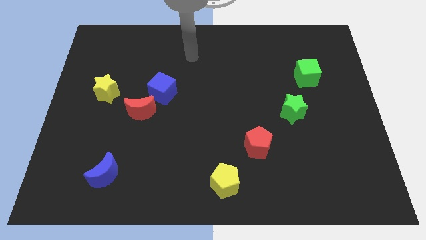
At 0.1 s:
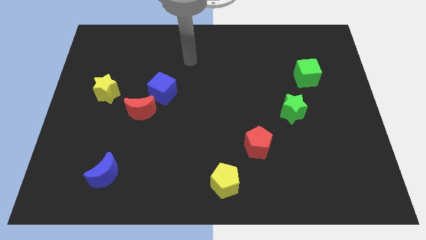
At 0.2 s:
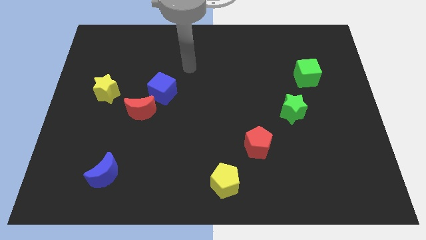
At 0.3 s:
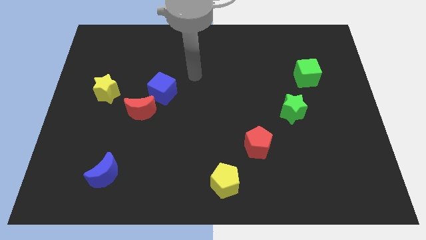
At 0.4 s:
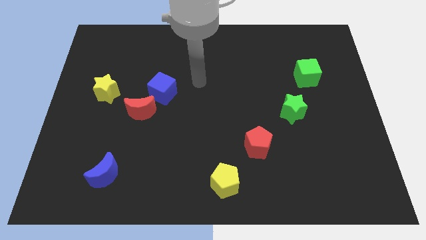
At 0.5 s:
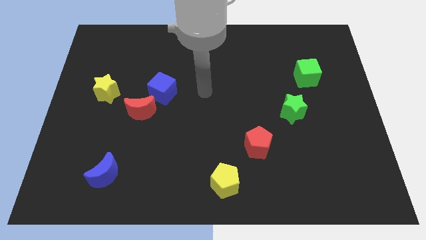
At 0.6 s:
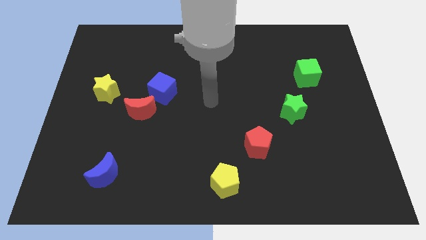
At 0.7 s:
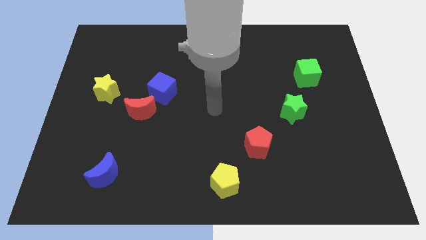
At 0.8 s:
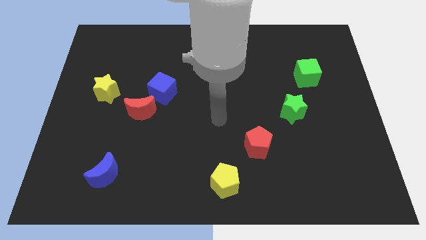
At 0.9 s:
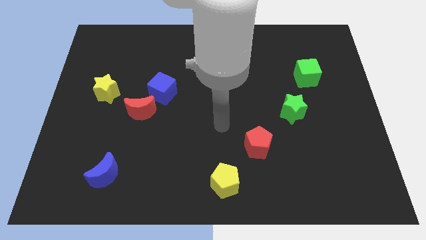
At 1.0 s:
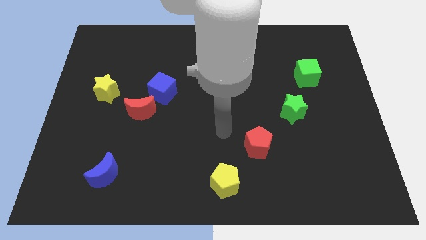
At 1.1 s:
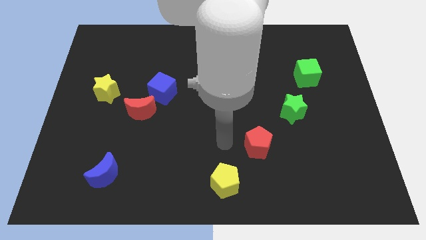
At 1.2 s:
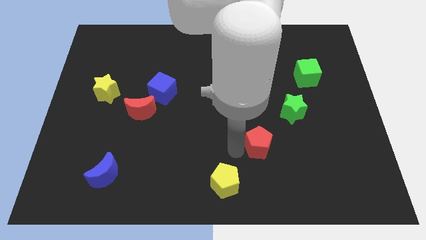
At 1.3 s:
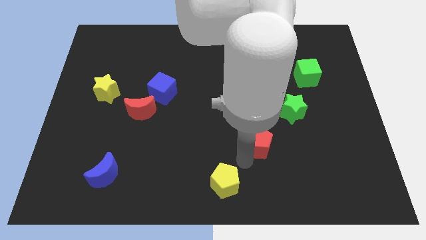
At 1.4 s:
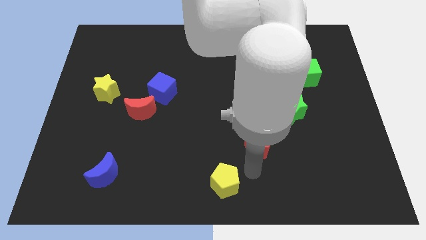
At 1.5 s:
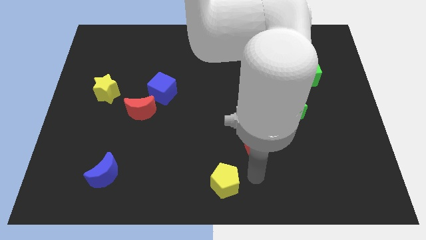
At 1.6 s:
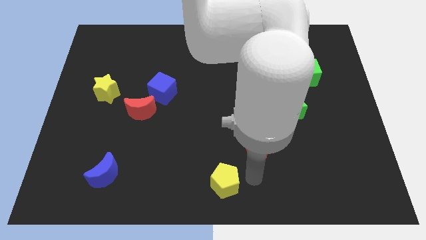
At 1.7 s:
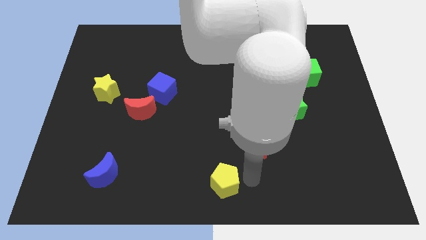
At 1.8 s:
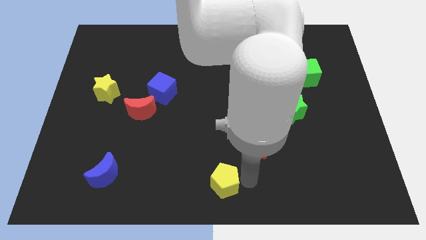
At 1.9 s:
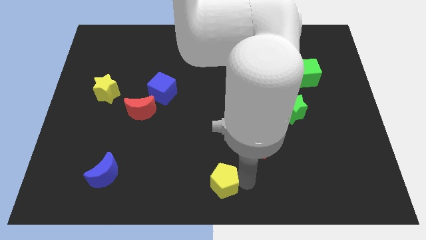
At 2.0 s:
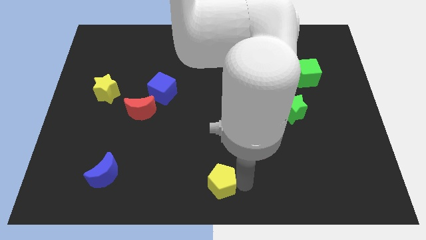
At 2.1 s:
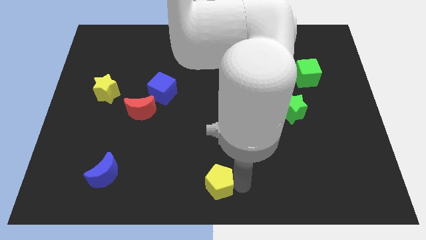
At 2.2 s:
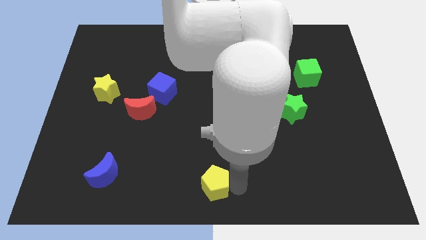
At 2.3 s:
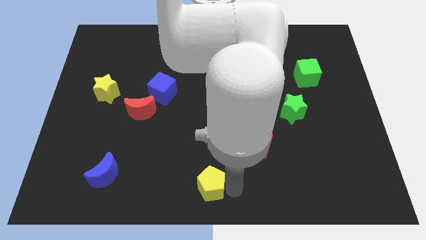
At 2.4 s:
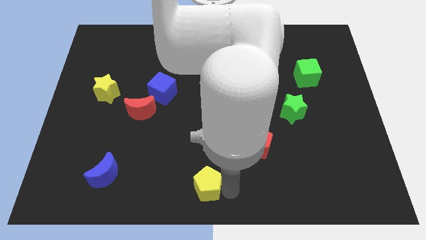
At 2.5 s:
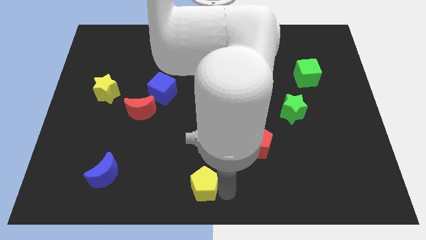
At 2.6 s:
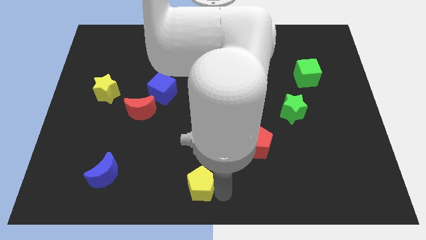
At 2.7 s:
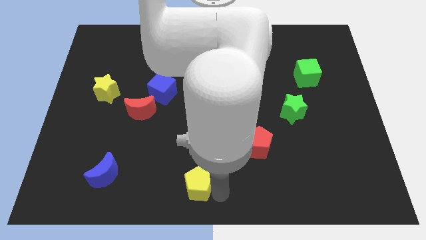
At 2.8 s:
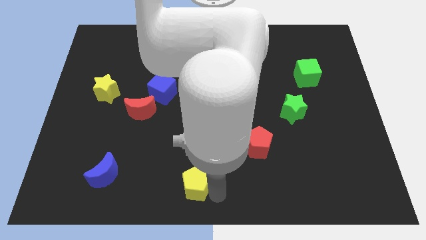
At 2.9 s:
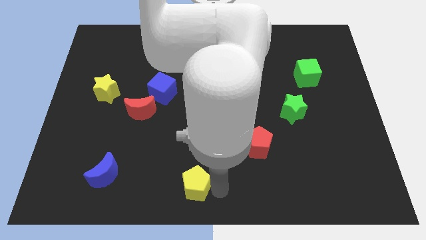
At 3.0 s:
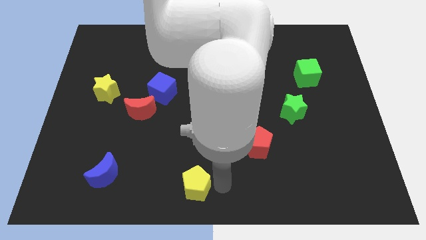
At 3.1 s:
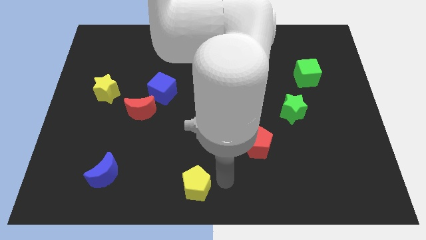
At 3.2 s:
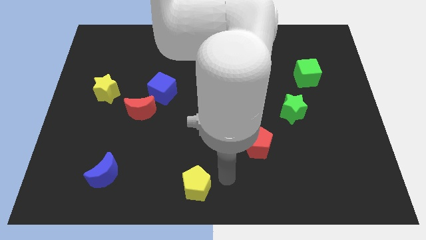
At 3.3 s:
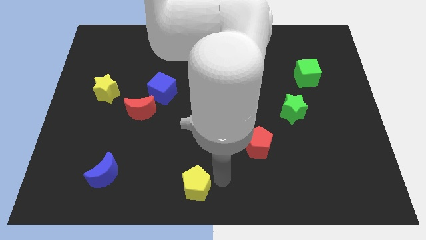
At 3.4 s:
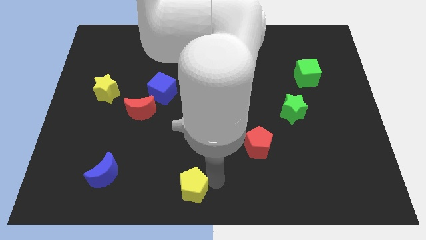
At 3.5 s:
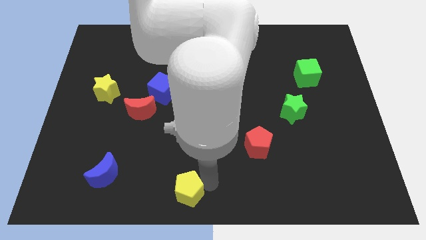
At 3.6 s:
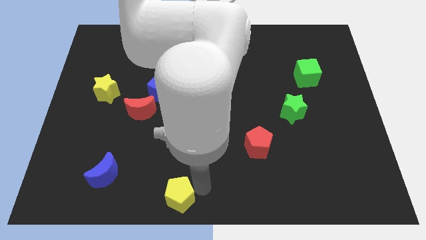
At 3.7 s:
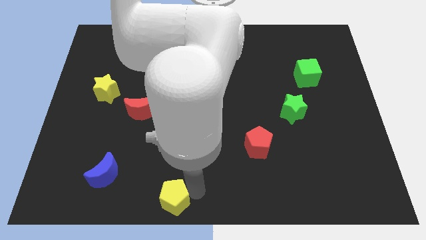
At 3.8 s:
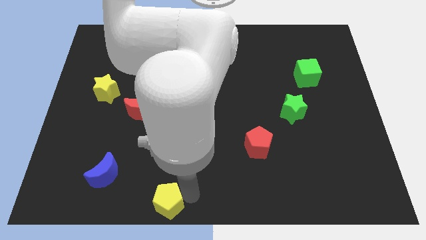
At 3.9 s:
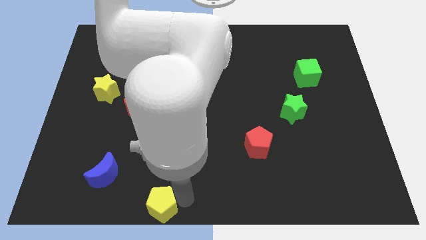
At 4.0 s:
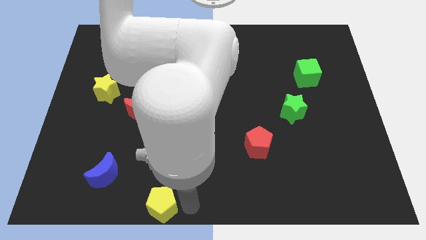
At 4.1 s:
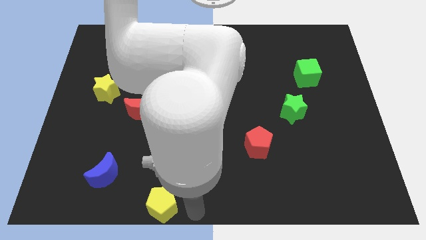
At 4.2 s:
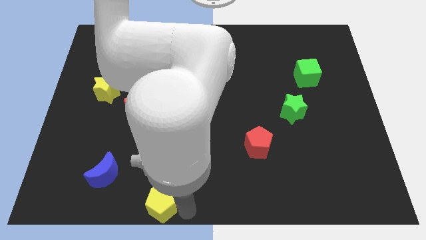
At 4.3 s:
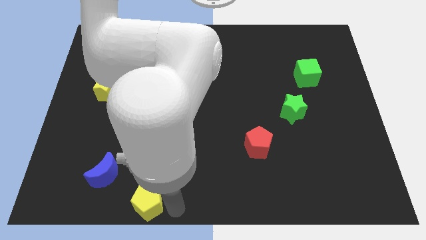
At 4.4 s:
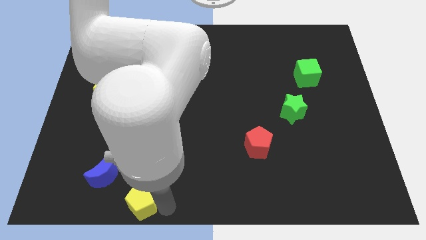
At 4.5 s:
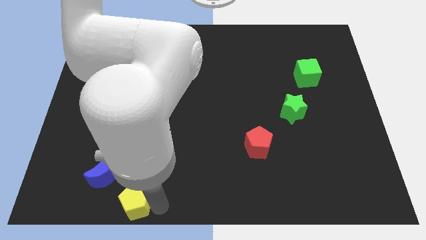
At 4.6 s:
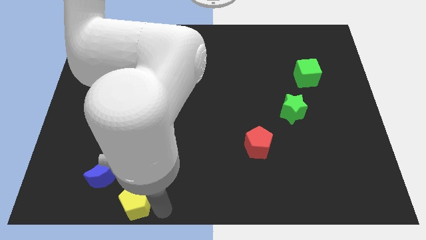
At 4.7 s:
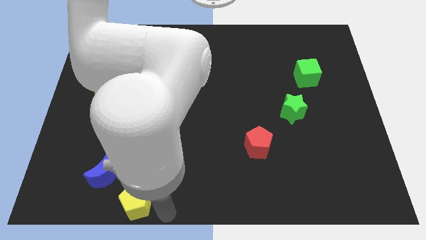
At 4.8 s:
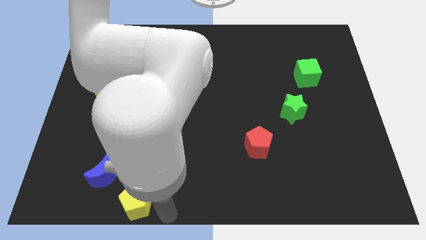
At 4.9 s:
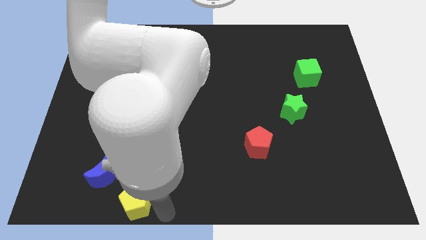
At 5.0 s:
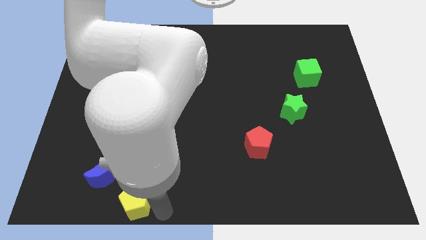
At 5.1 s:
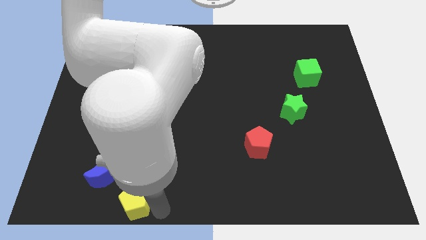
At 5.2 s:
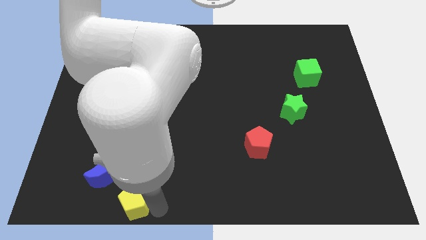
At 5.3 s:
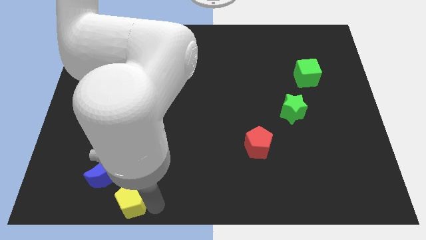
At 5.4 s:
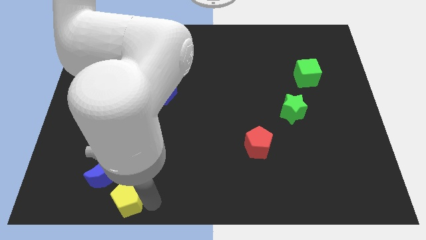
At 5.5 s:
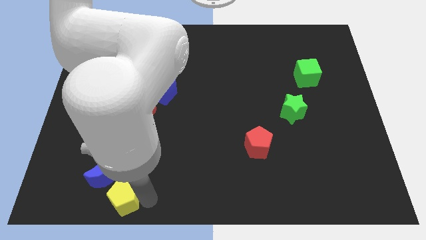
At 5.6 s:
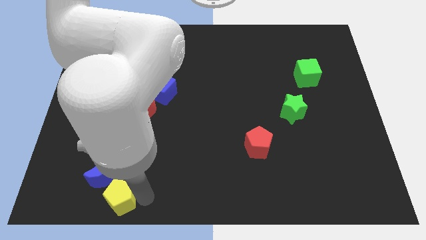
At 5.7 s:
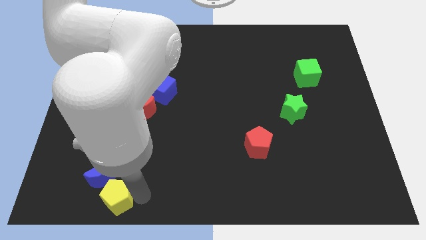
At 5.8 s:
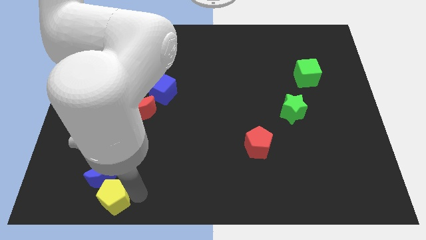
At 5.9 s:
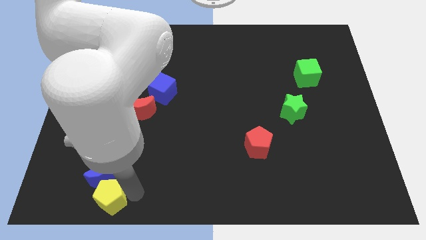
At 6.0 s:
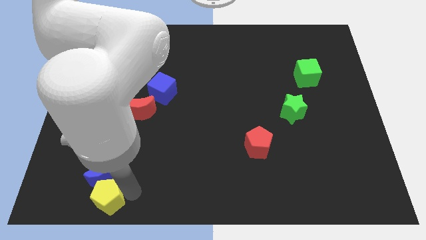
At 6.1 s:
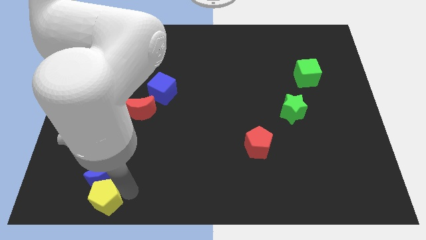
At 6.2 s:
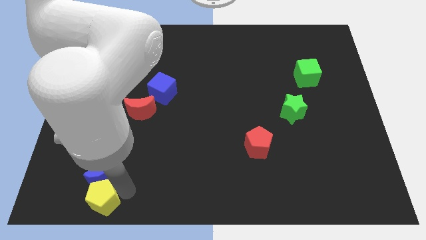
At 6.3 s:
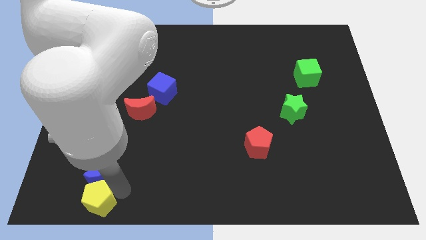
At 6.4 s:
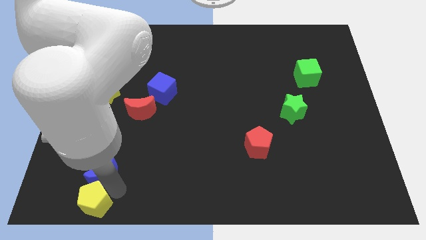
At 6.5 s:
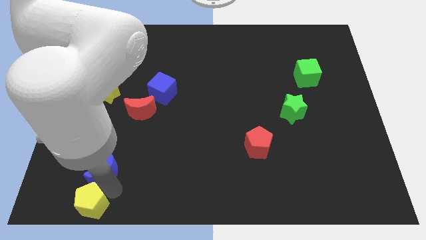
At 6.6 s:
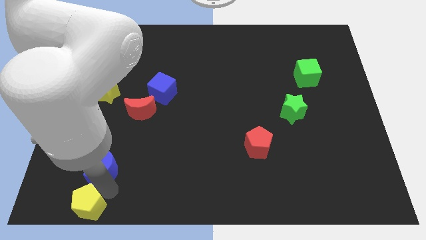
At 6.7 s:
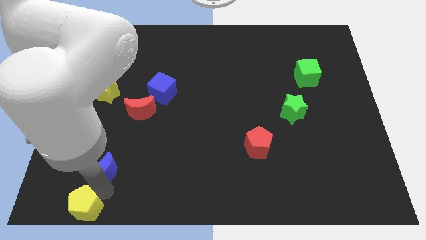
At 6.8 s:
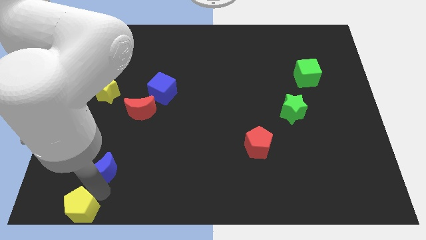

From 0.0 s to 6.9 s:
slide the yellow pentagon to the bottom left of the board

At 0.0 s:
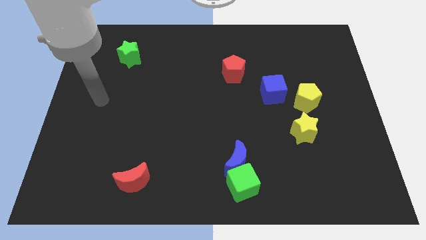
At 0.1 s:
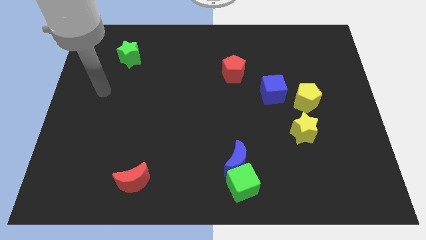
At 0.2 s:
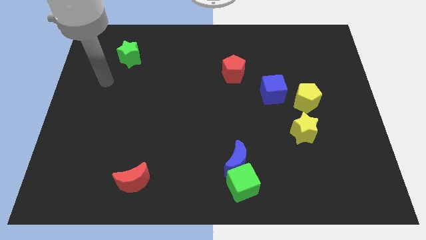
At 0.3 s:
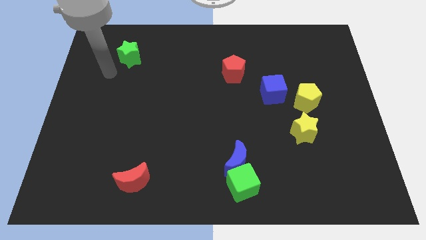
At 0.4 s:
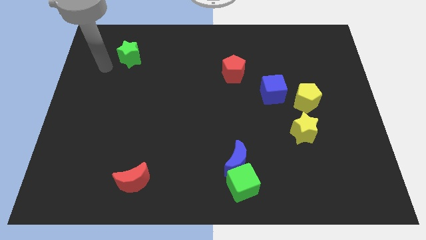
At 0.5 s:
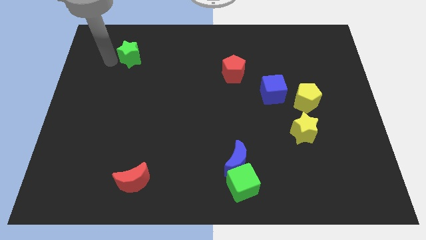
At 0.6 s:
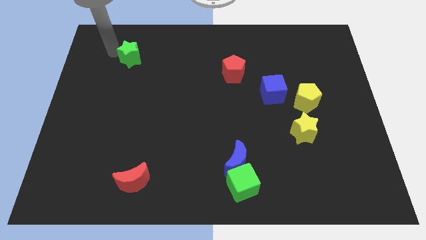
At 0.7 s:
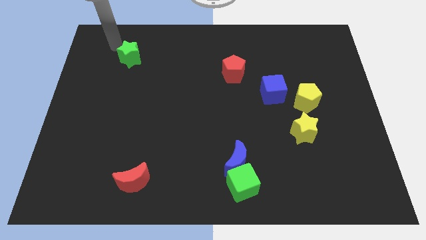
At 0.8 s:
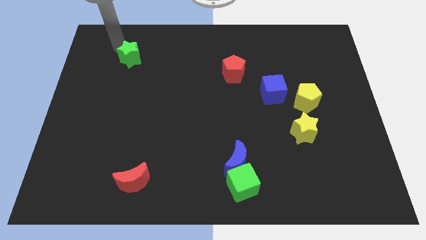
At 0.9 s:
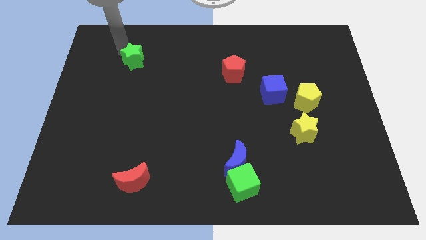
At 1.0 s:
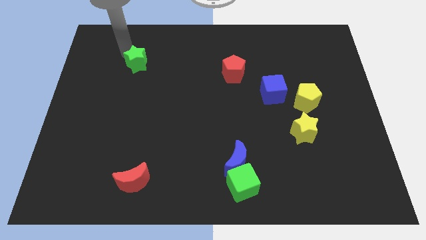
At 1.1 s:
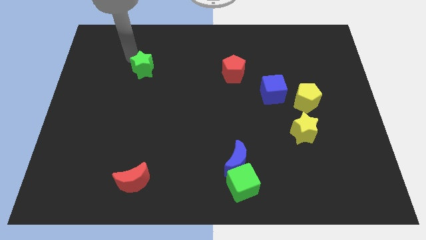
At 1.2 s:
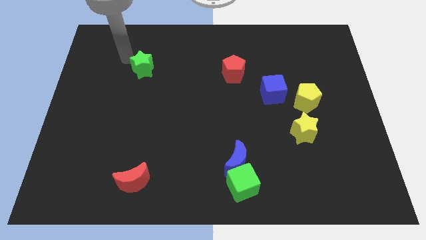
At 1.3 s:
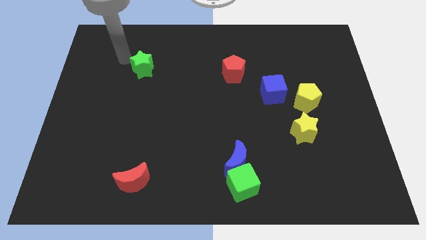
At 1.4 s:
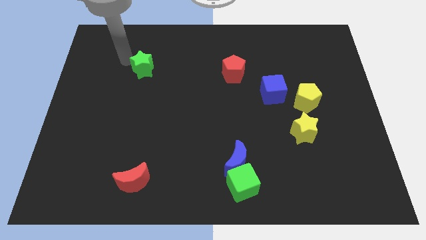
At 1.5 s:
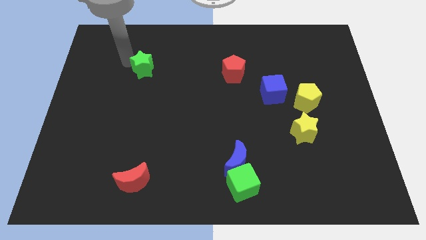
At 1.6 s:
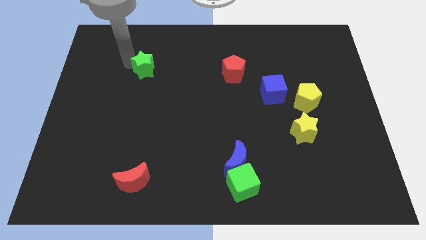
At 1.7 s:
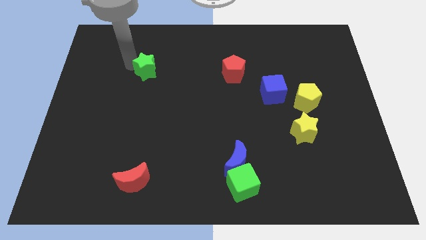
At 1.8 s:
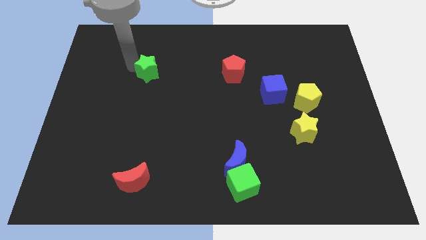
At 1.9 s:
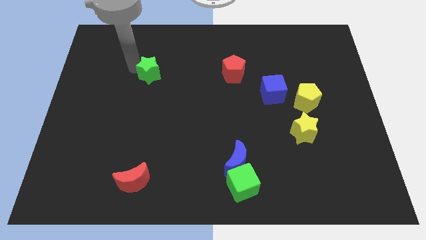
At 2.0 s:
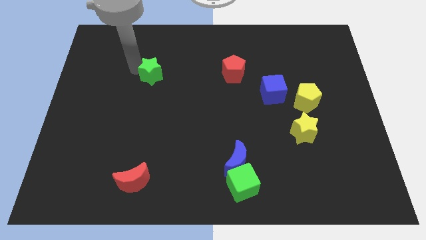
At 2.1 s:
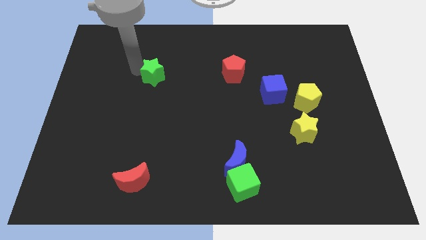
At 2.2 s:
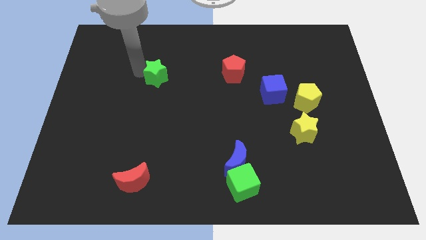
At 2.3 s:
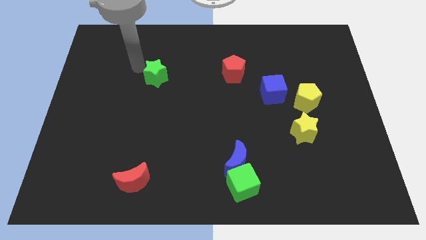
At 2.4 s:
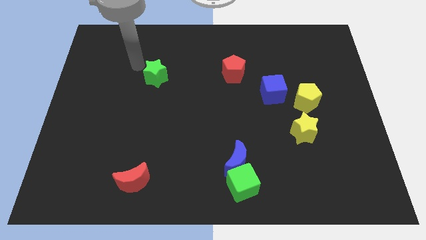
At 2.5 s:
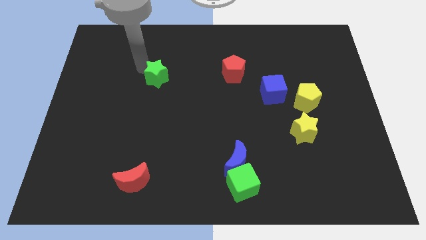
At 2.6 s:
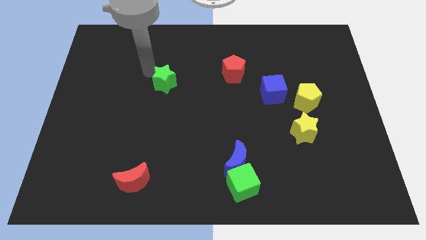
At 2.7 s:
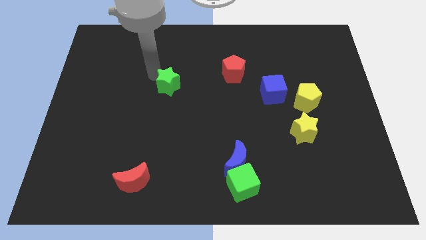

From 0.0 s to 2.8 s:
put the green star to the center of the board
